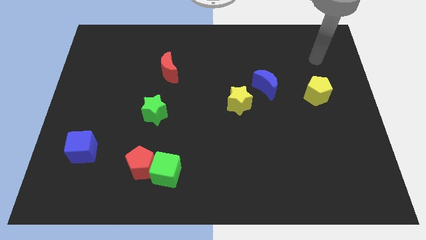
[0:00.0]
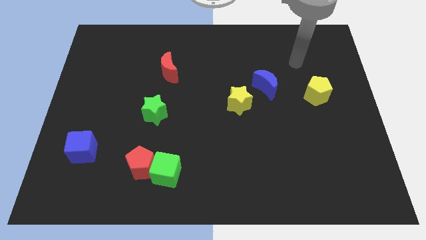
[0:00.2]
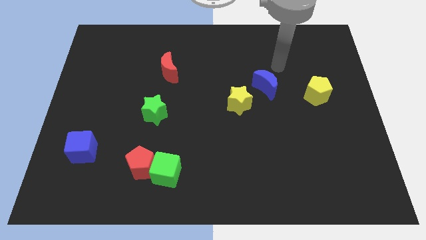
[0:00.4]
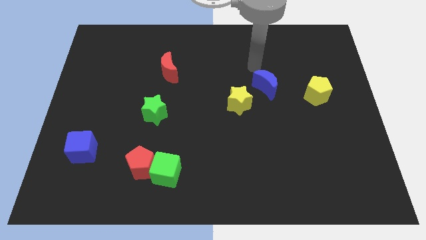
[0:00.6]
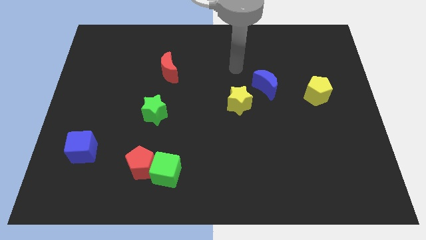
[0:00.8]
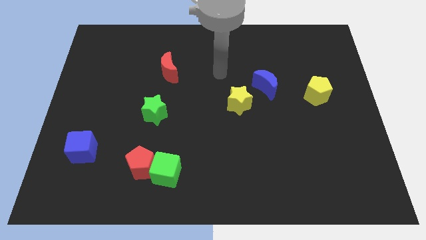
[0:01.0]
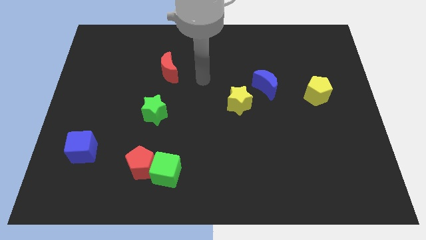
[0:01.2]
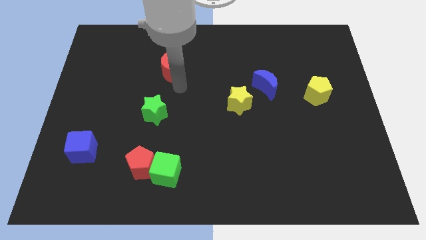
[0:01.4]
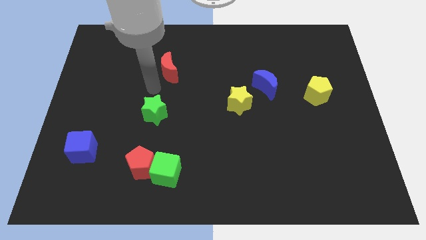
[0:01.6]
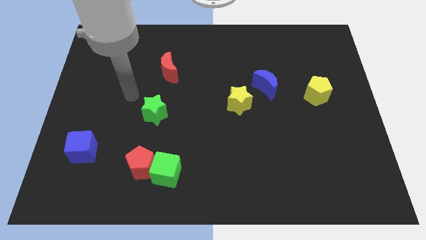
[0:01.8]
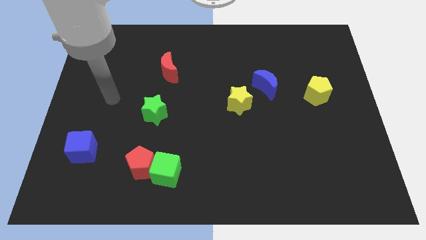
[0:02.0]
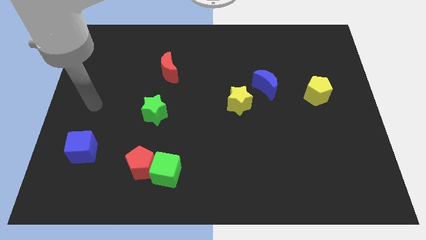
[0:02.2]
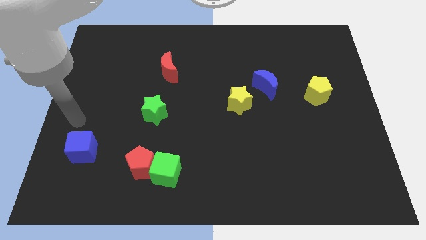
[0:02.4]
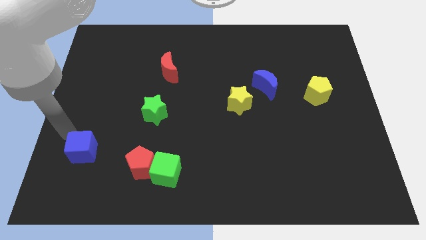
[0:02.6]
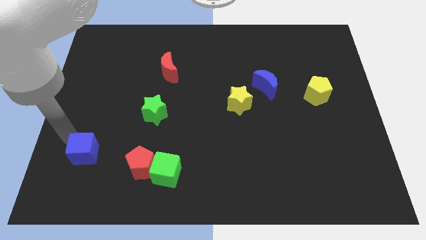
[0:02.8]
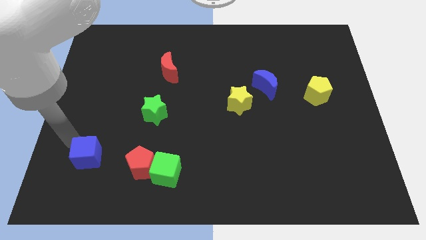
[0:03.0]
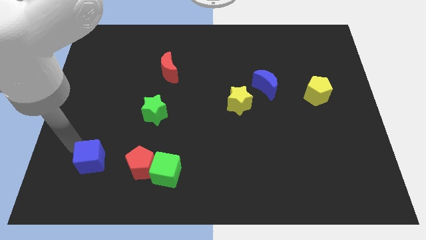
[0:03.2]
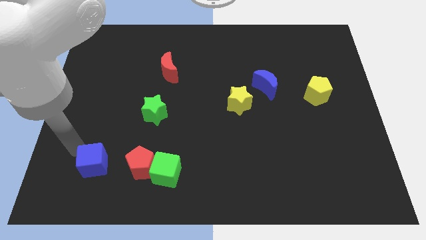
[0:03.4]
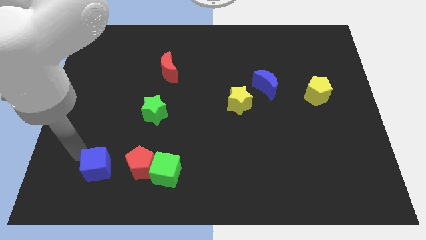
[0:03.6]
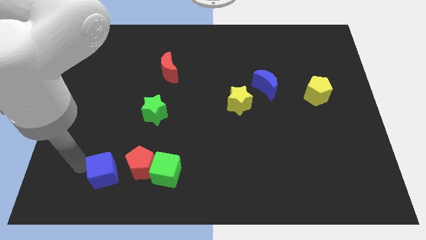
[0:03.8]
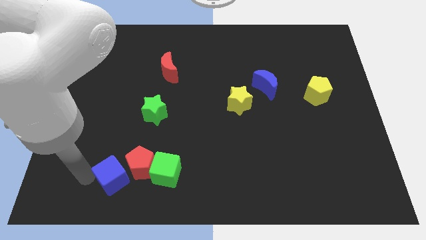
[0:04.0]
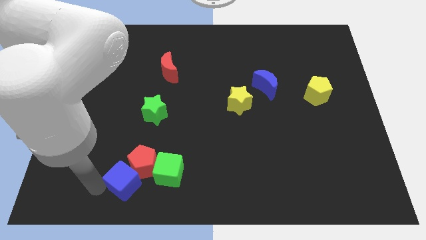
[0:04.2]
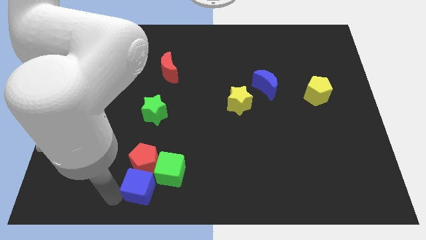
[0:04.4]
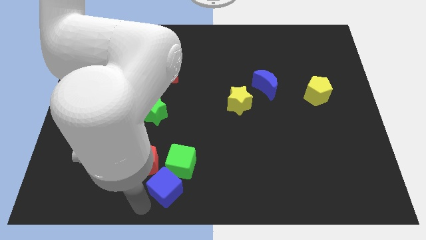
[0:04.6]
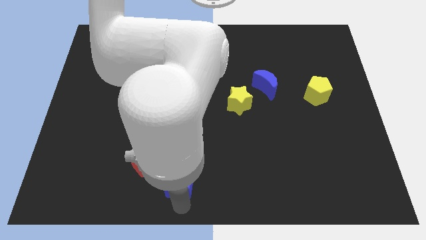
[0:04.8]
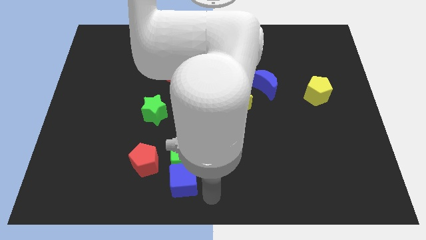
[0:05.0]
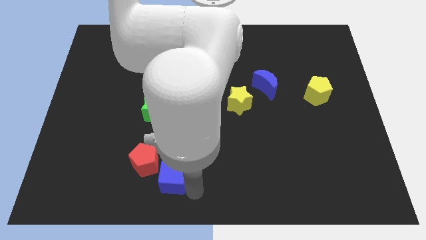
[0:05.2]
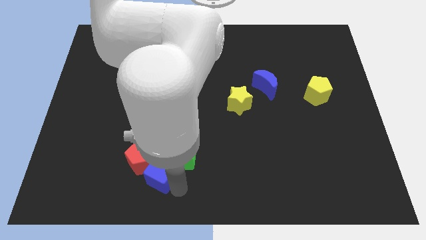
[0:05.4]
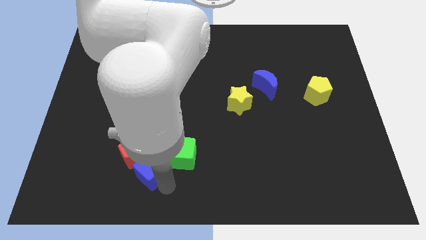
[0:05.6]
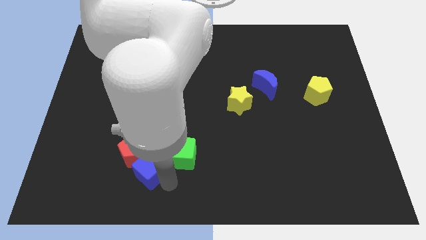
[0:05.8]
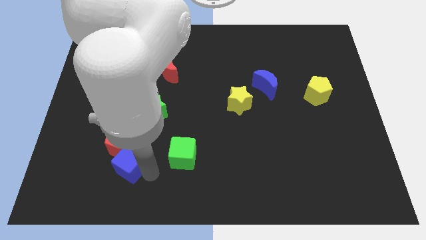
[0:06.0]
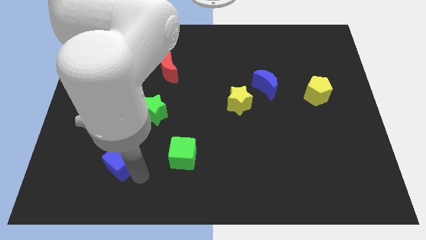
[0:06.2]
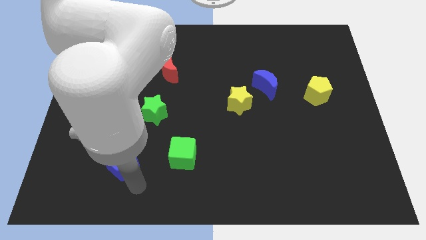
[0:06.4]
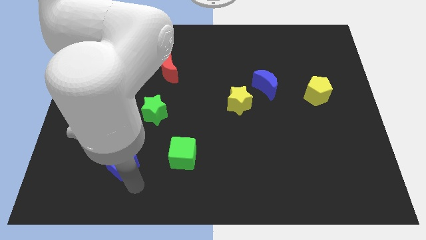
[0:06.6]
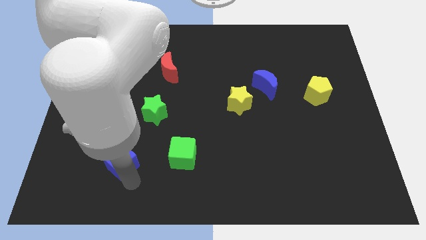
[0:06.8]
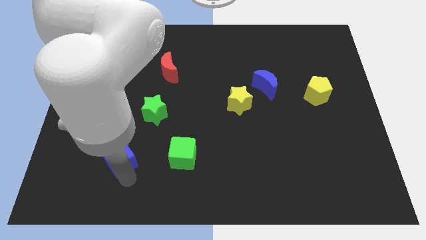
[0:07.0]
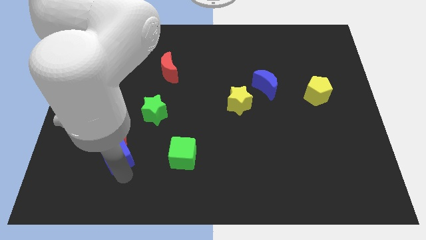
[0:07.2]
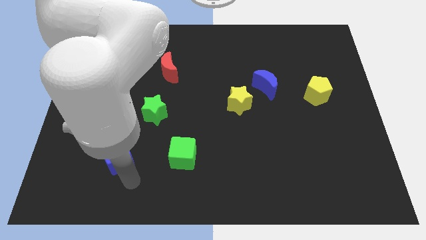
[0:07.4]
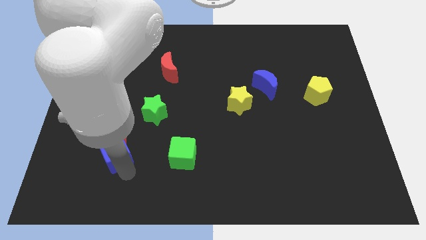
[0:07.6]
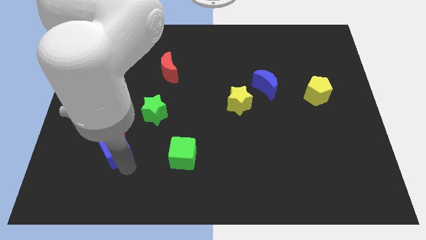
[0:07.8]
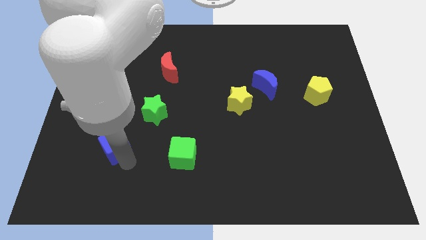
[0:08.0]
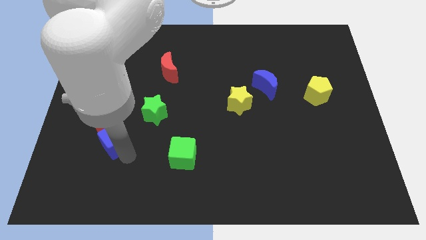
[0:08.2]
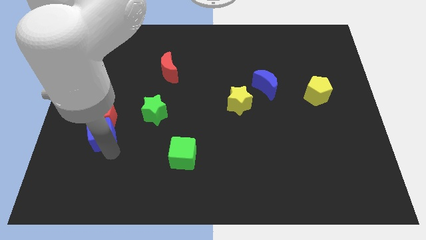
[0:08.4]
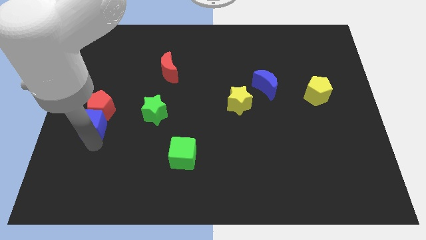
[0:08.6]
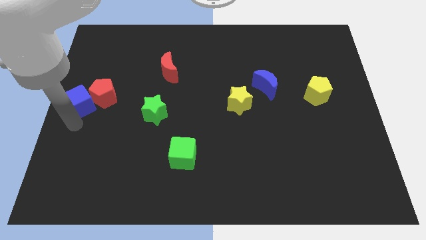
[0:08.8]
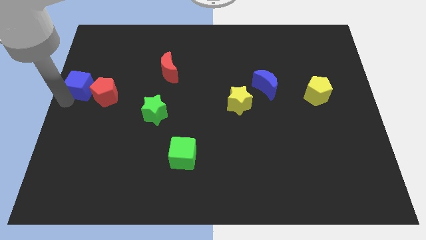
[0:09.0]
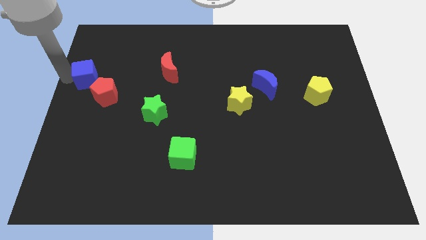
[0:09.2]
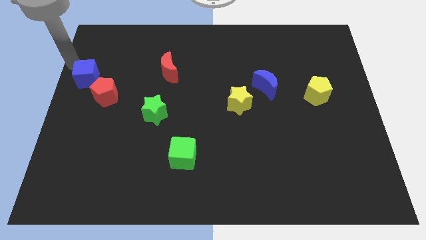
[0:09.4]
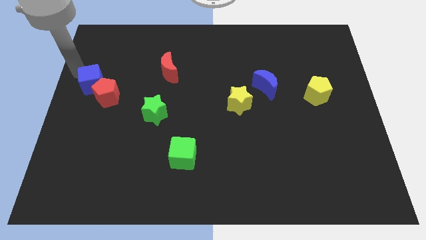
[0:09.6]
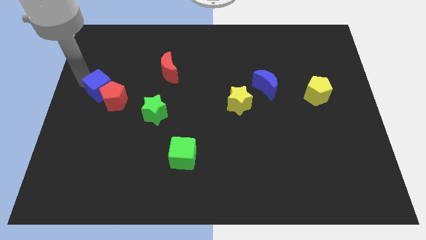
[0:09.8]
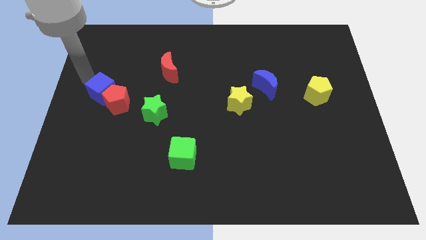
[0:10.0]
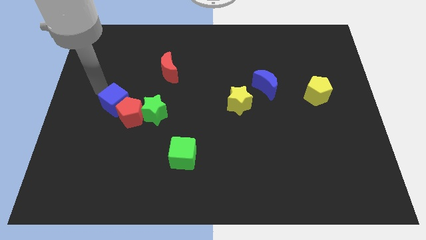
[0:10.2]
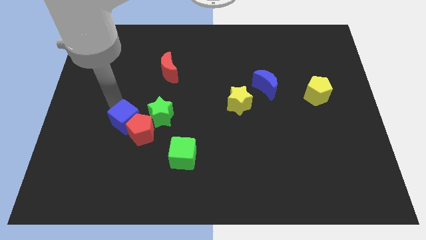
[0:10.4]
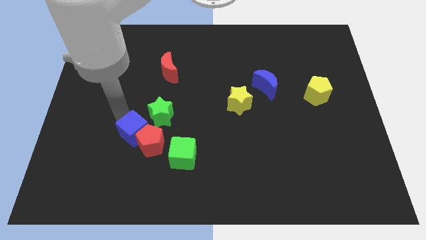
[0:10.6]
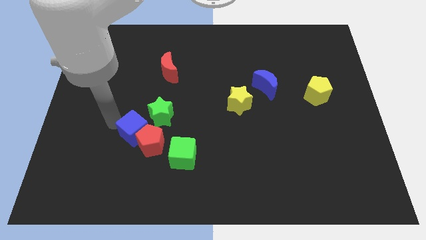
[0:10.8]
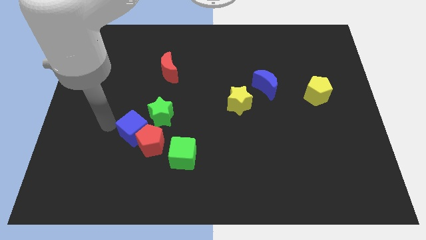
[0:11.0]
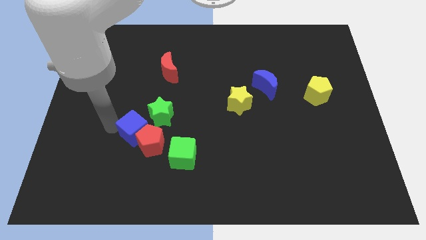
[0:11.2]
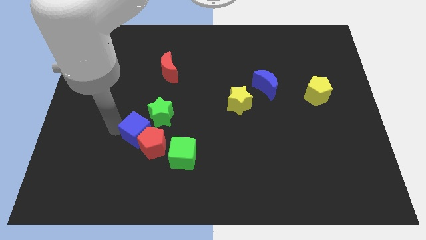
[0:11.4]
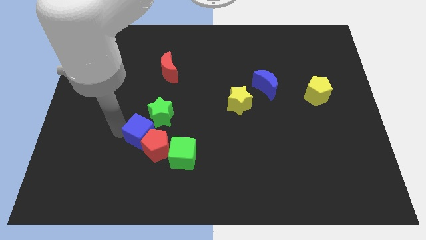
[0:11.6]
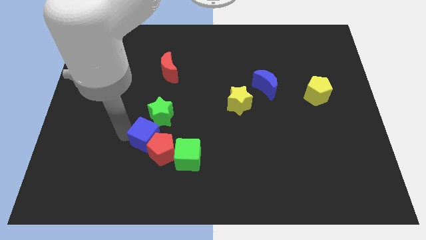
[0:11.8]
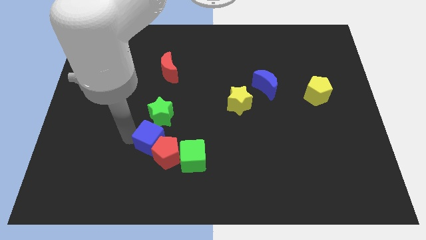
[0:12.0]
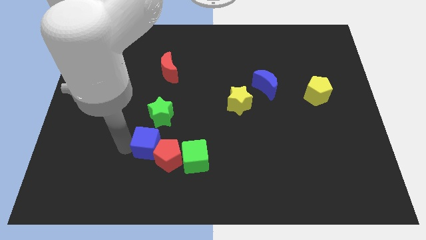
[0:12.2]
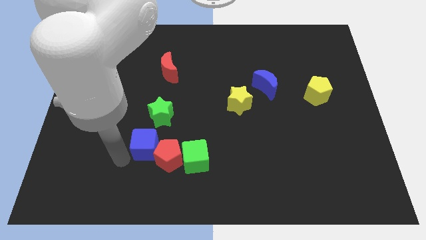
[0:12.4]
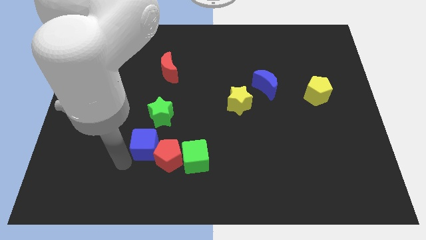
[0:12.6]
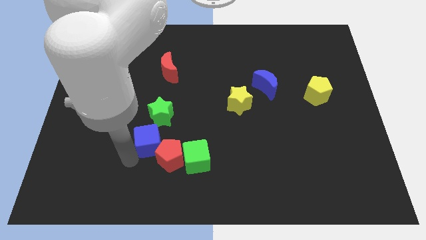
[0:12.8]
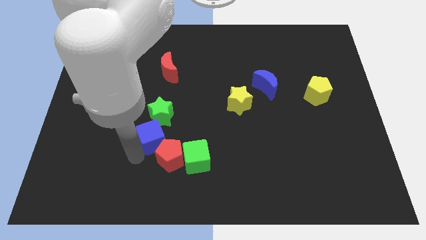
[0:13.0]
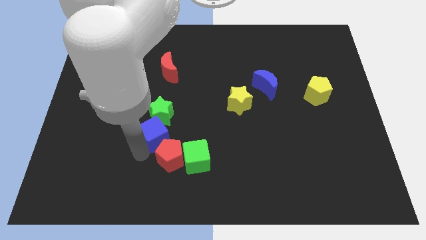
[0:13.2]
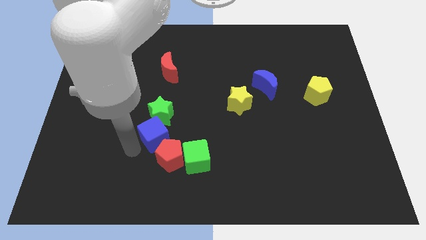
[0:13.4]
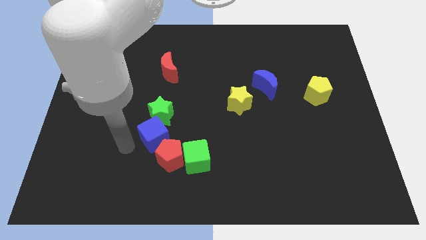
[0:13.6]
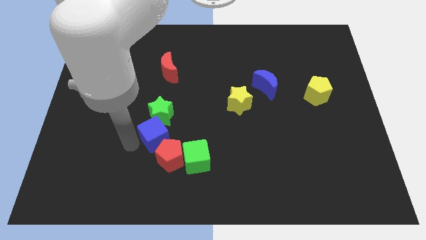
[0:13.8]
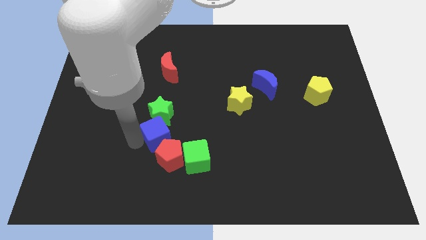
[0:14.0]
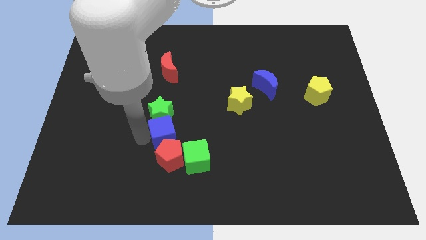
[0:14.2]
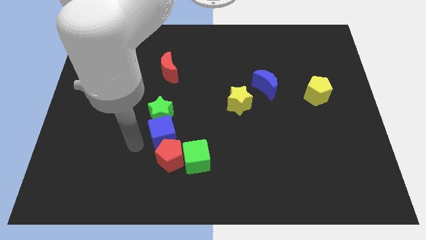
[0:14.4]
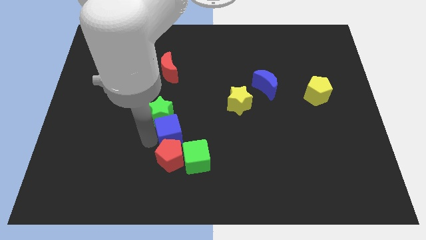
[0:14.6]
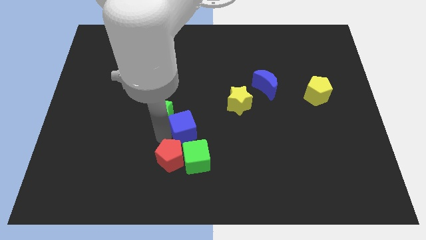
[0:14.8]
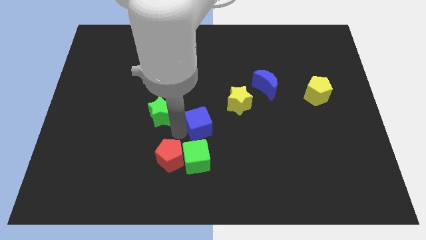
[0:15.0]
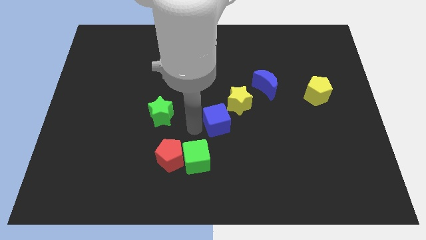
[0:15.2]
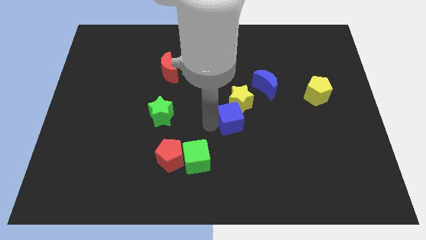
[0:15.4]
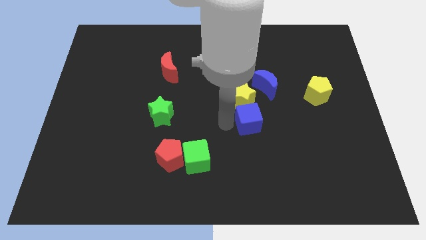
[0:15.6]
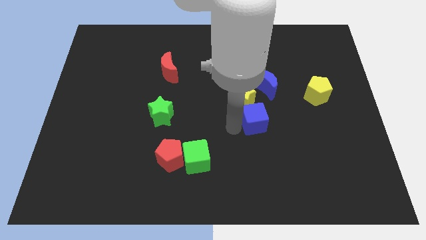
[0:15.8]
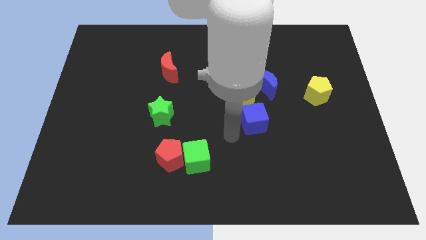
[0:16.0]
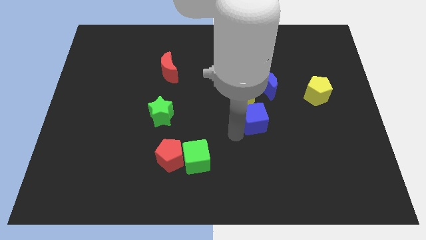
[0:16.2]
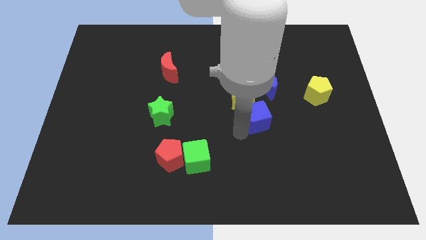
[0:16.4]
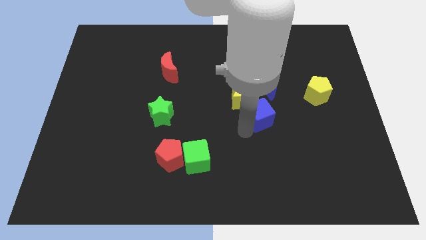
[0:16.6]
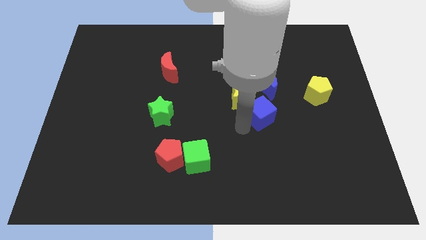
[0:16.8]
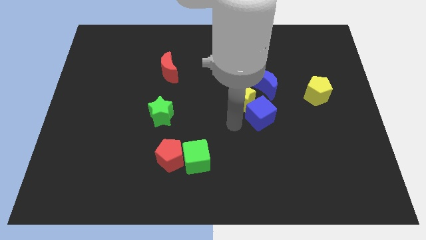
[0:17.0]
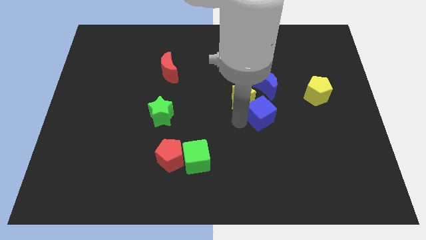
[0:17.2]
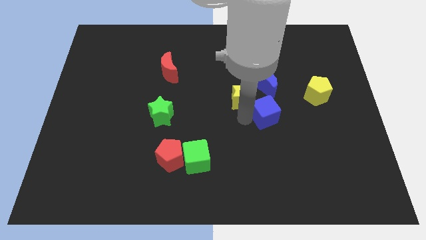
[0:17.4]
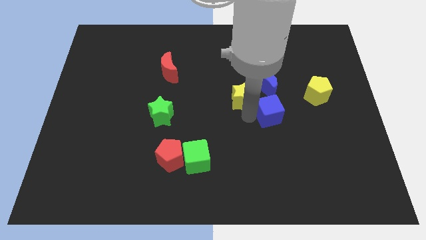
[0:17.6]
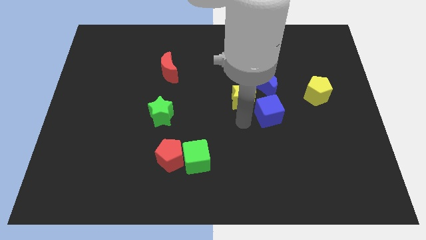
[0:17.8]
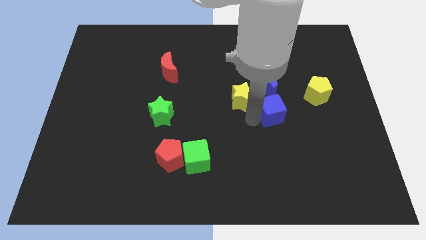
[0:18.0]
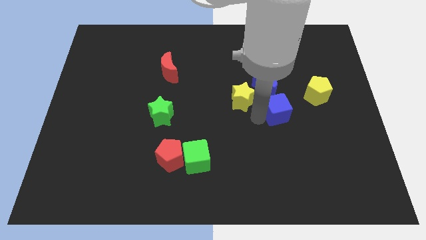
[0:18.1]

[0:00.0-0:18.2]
push the blue cube to the bottom left side of the yellow pentagon
